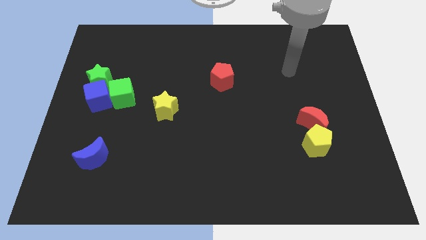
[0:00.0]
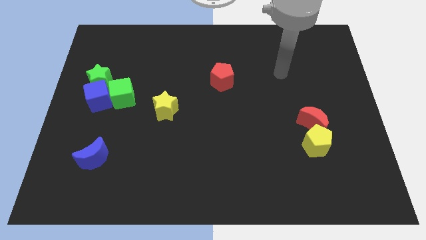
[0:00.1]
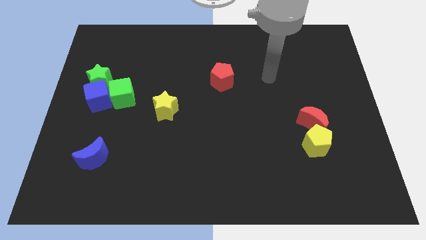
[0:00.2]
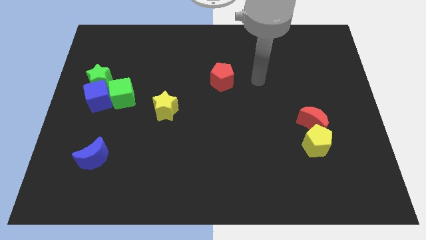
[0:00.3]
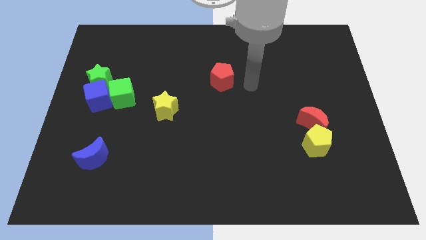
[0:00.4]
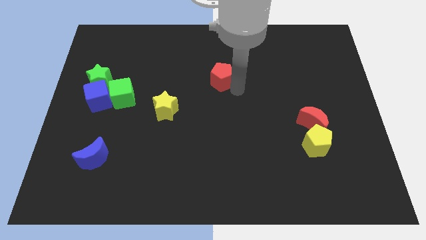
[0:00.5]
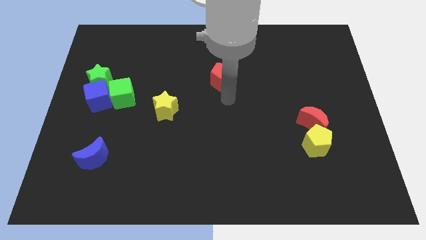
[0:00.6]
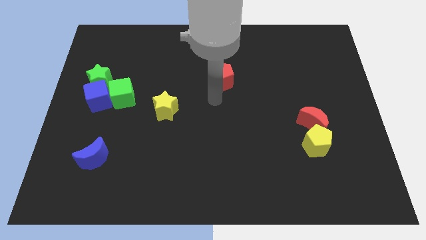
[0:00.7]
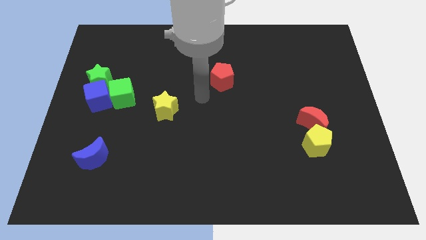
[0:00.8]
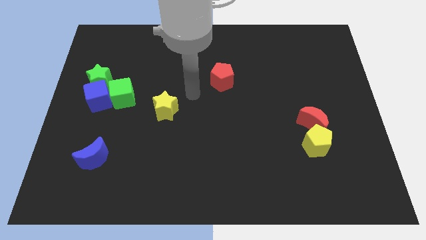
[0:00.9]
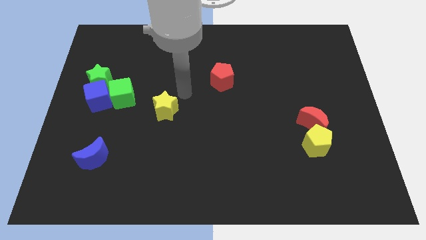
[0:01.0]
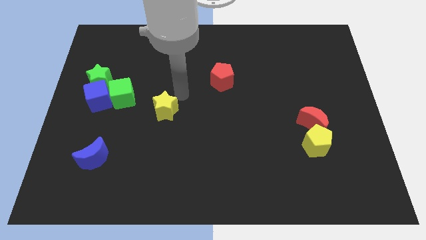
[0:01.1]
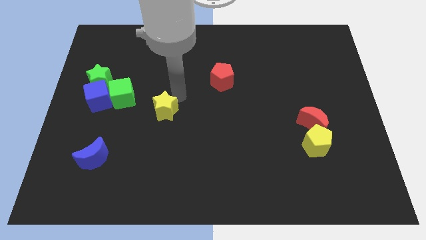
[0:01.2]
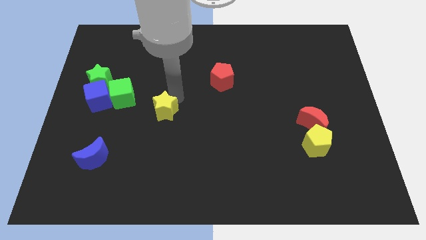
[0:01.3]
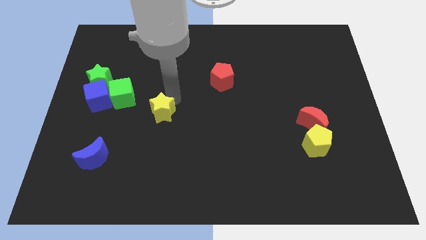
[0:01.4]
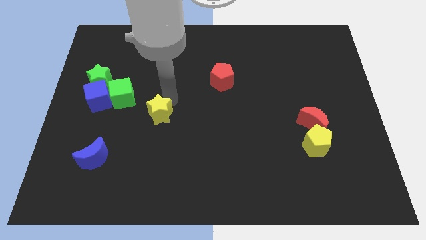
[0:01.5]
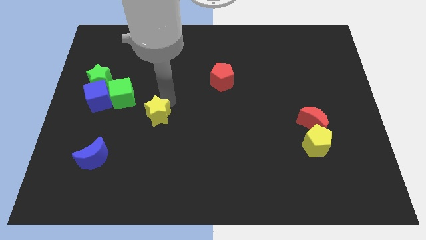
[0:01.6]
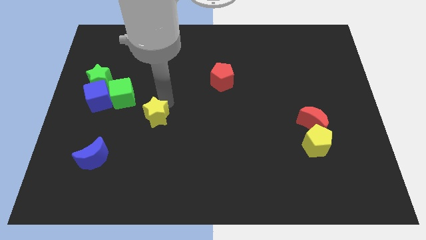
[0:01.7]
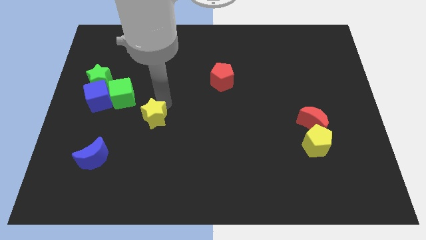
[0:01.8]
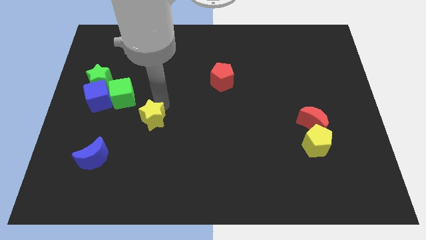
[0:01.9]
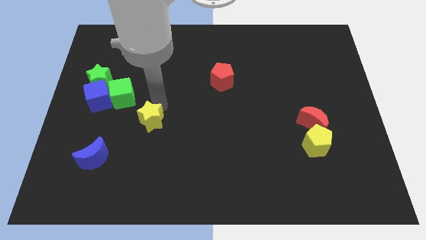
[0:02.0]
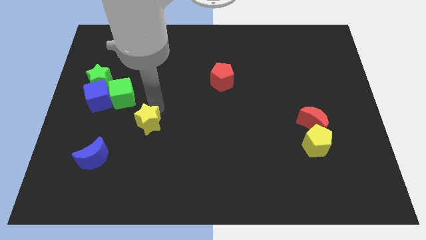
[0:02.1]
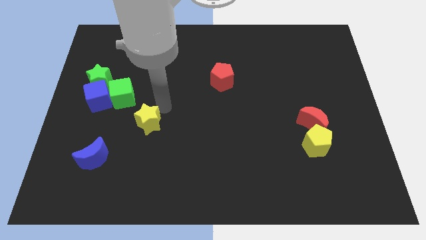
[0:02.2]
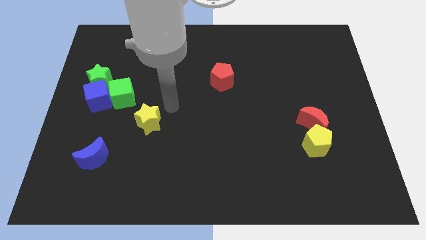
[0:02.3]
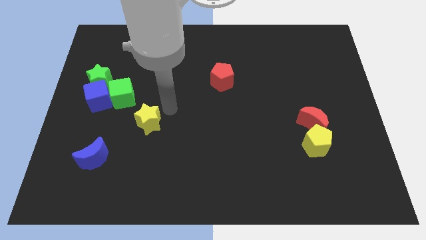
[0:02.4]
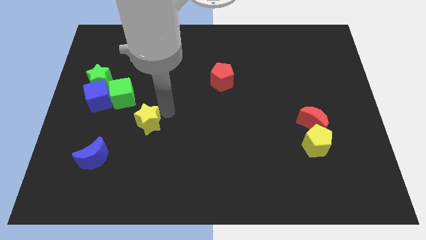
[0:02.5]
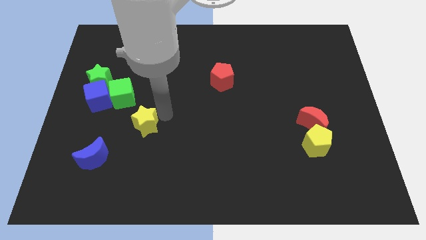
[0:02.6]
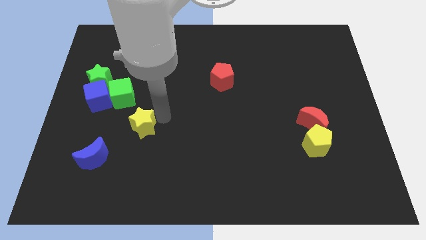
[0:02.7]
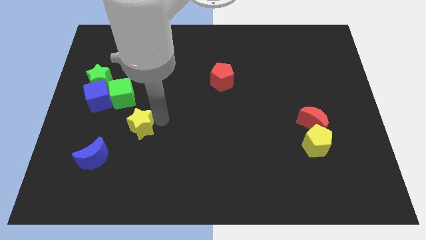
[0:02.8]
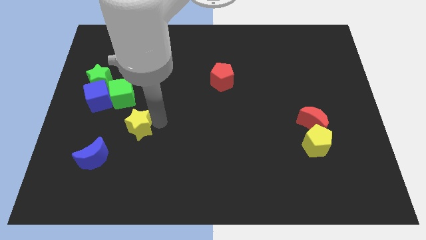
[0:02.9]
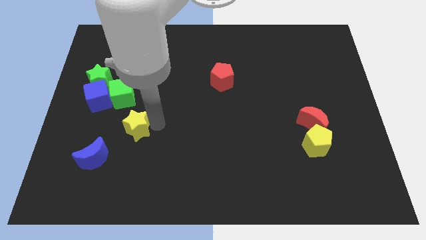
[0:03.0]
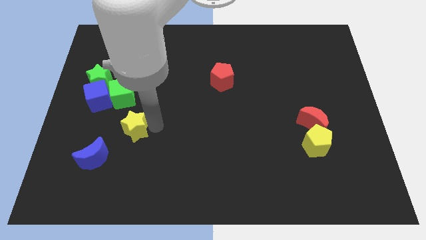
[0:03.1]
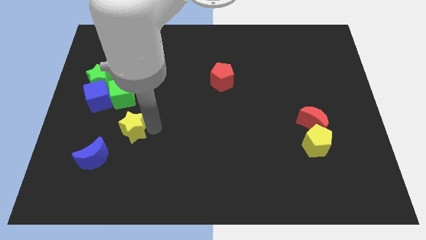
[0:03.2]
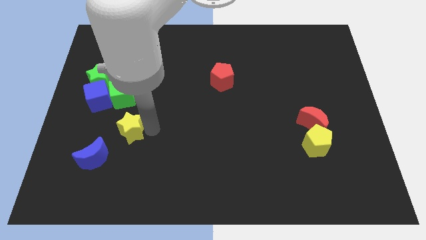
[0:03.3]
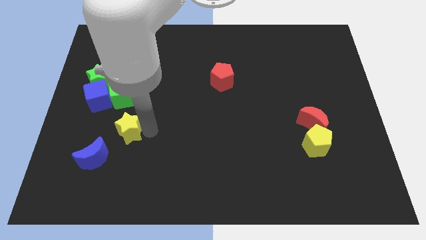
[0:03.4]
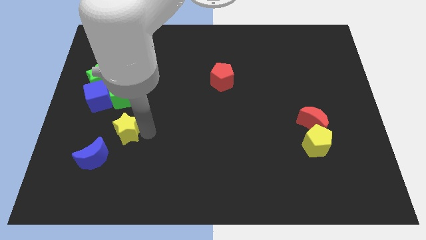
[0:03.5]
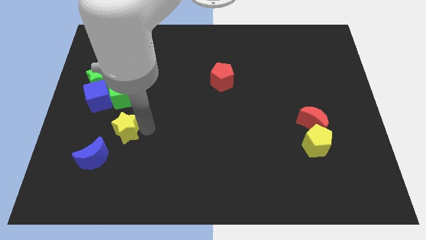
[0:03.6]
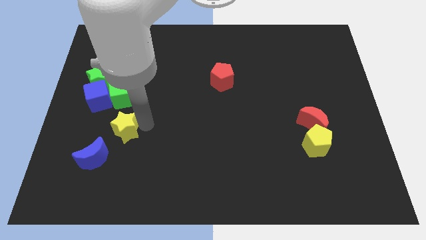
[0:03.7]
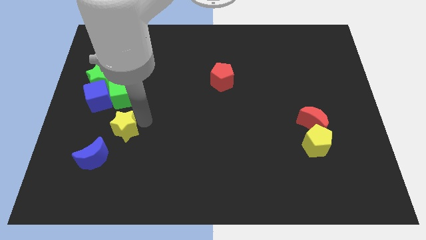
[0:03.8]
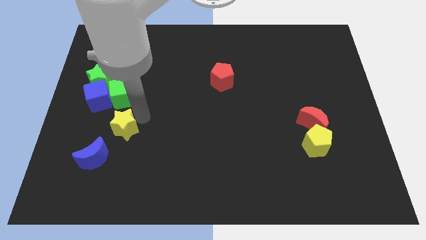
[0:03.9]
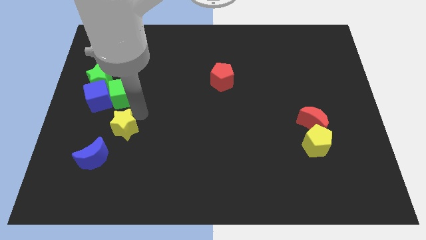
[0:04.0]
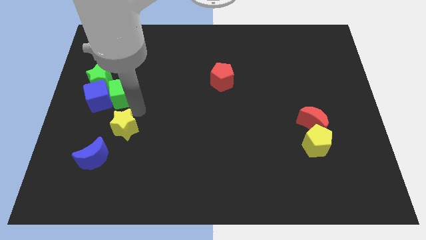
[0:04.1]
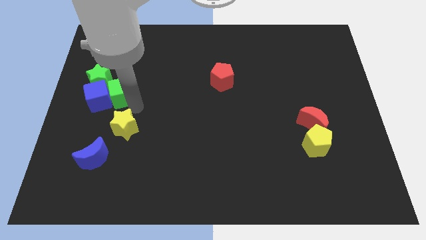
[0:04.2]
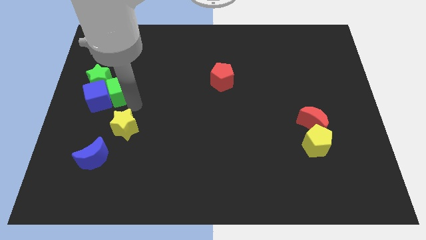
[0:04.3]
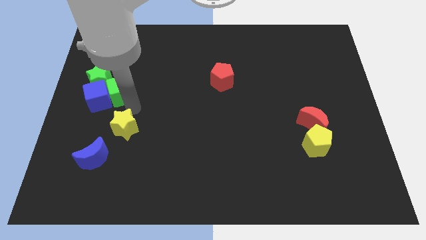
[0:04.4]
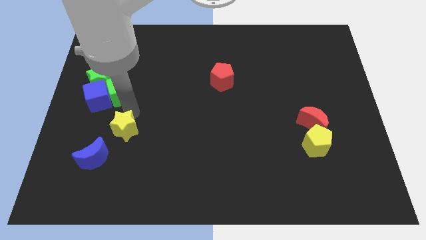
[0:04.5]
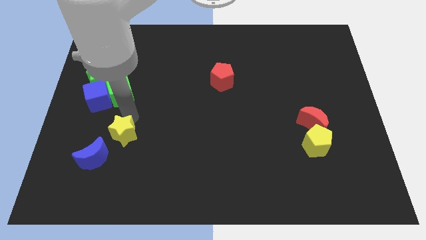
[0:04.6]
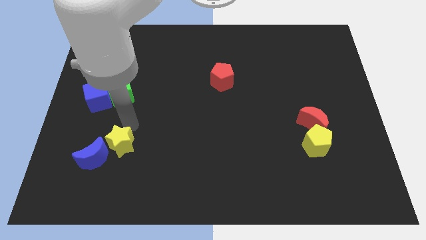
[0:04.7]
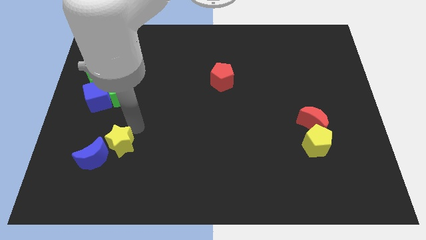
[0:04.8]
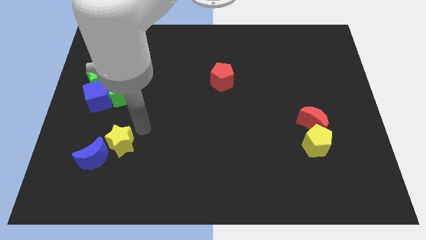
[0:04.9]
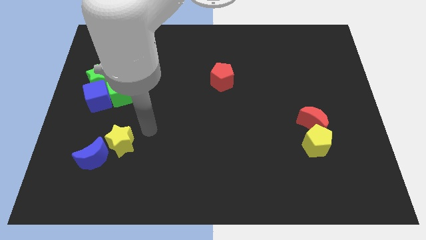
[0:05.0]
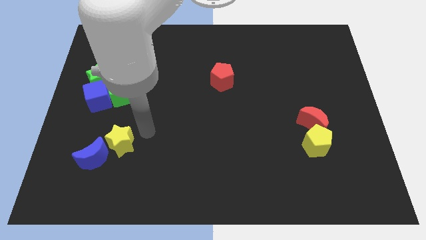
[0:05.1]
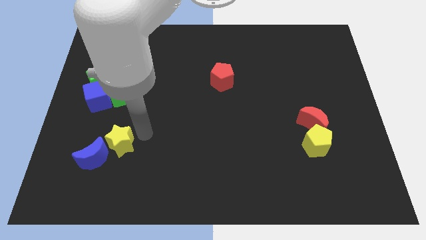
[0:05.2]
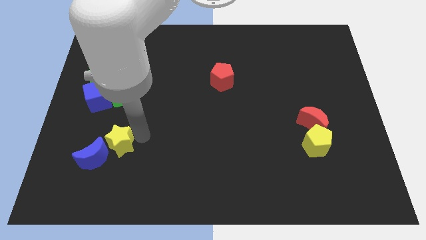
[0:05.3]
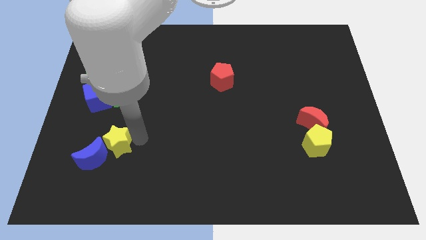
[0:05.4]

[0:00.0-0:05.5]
put the yellow star next to the blue moon

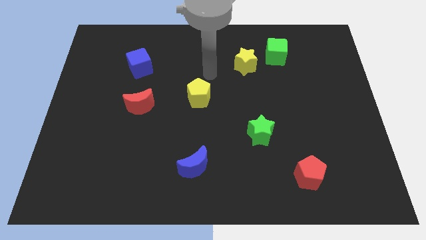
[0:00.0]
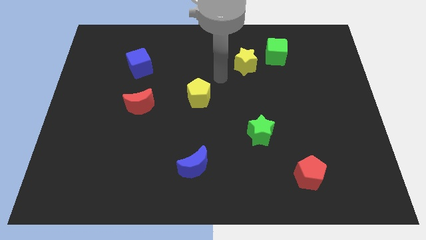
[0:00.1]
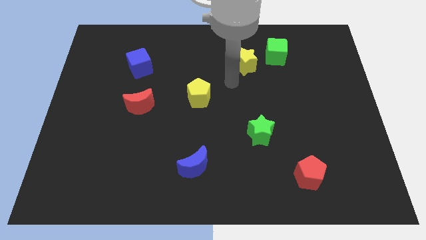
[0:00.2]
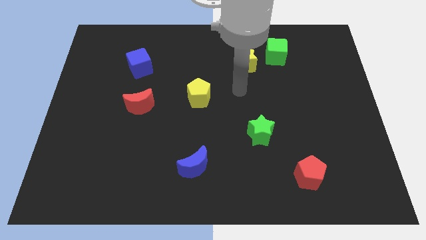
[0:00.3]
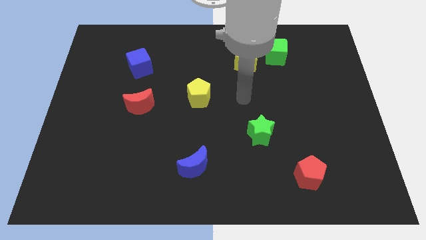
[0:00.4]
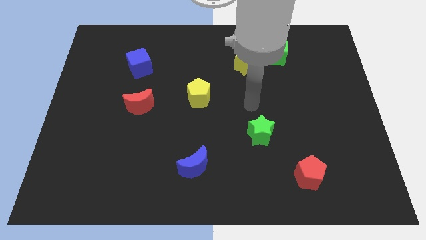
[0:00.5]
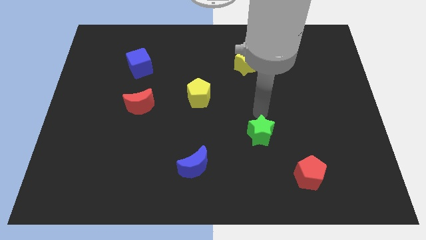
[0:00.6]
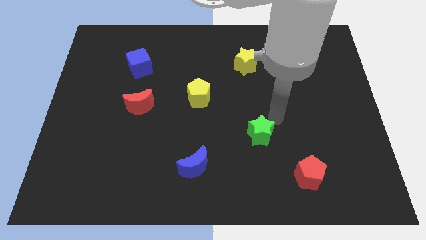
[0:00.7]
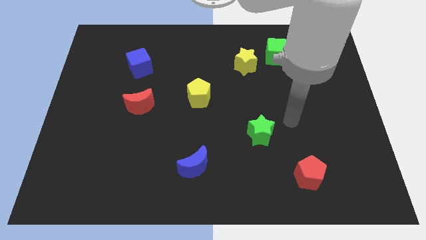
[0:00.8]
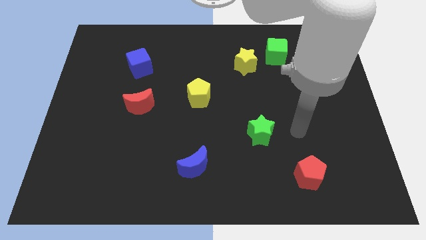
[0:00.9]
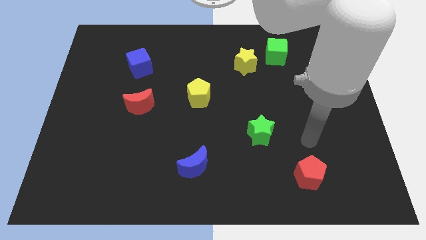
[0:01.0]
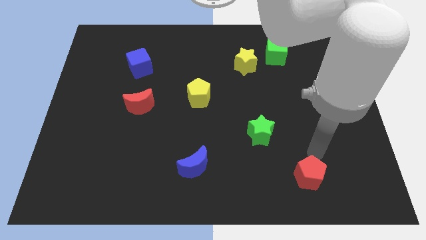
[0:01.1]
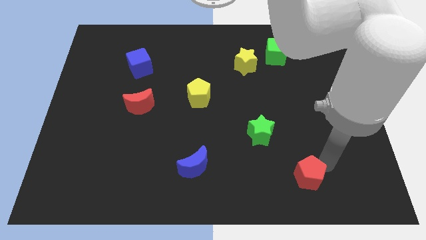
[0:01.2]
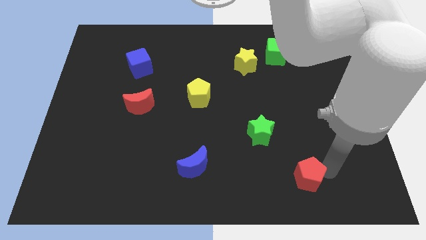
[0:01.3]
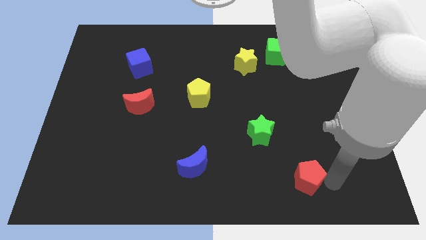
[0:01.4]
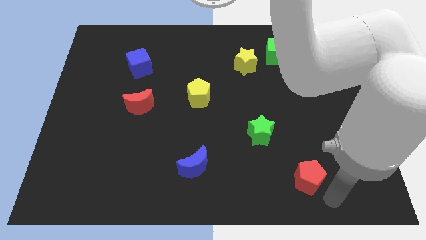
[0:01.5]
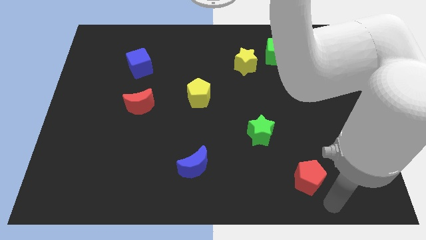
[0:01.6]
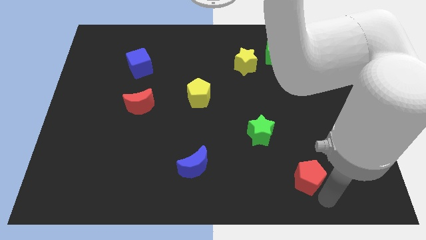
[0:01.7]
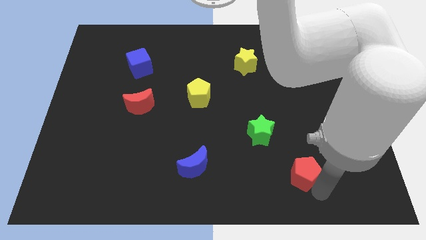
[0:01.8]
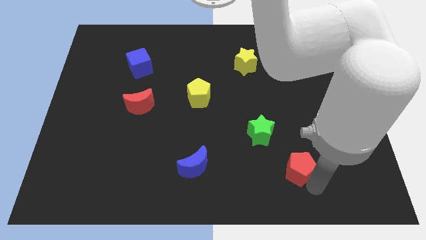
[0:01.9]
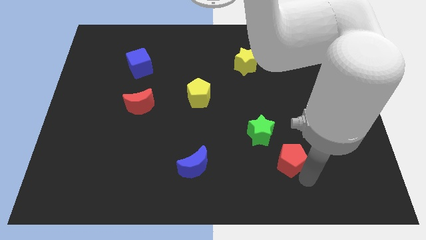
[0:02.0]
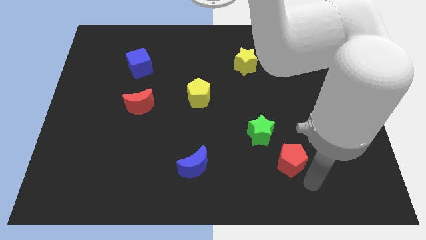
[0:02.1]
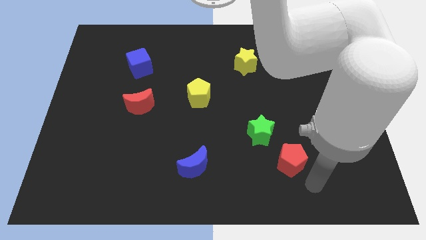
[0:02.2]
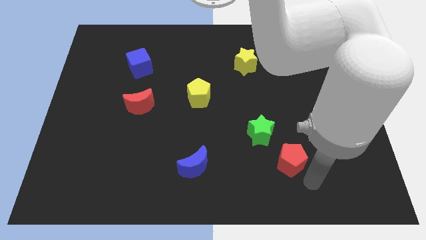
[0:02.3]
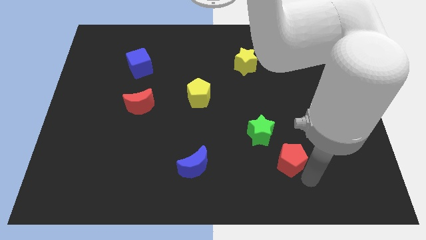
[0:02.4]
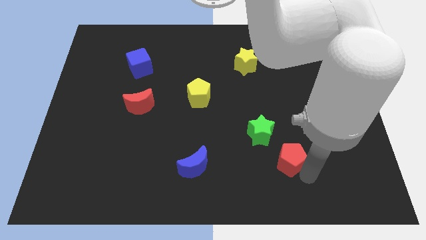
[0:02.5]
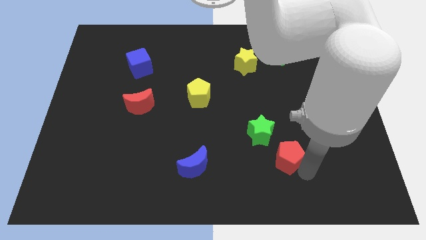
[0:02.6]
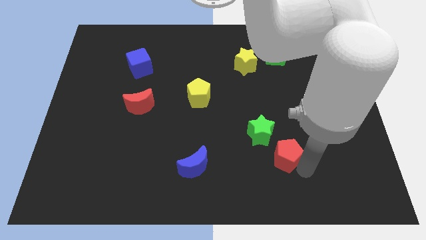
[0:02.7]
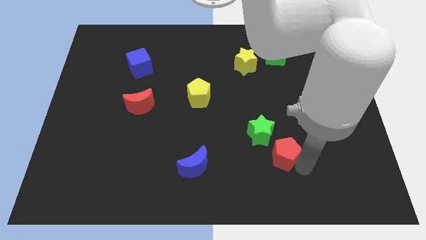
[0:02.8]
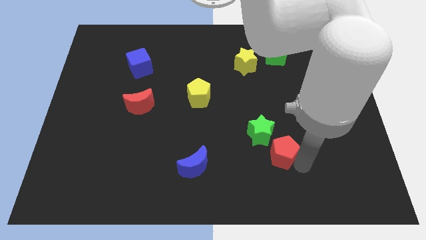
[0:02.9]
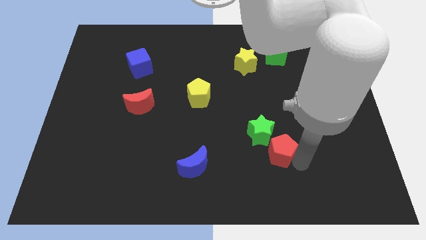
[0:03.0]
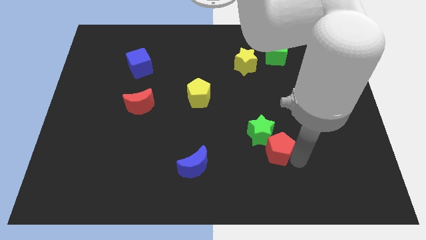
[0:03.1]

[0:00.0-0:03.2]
move the red pentagon close to the green star
